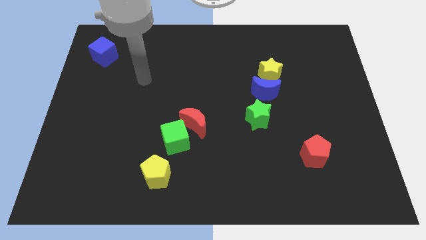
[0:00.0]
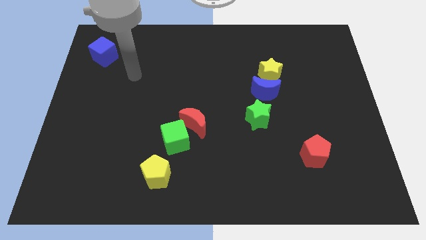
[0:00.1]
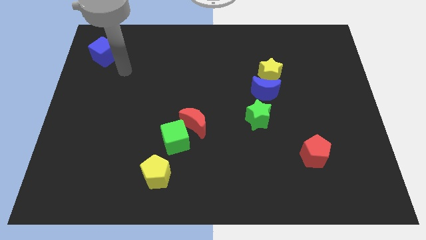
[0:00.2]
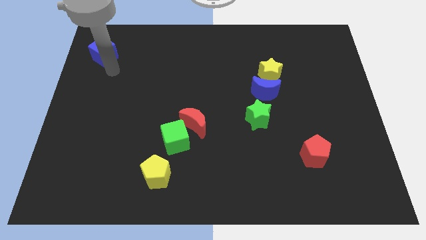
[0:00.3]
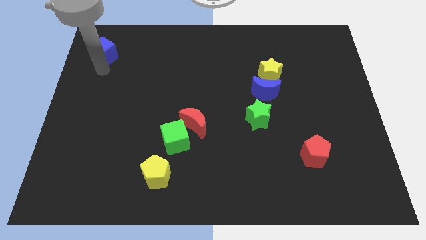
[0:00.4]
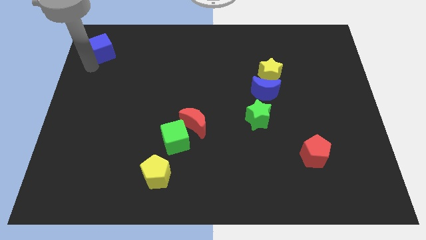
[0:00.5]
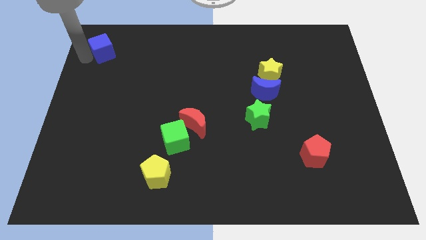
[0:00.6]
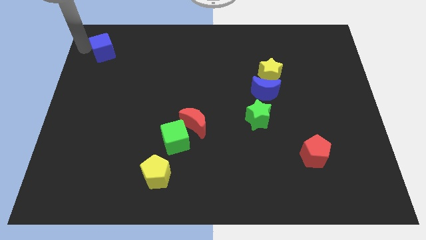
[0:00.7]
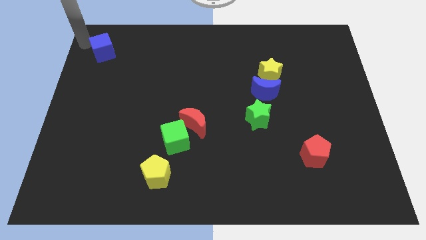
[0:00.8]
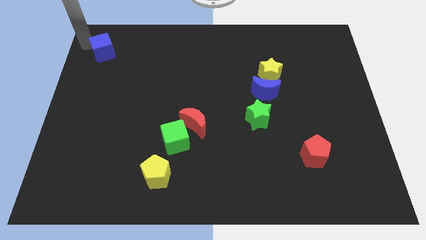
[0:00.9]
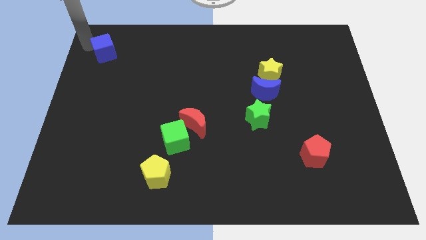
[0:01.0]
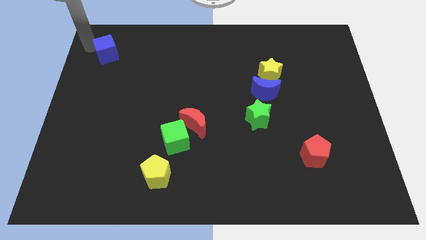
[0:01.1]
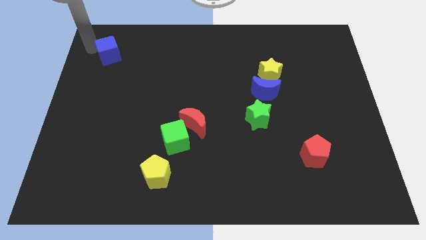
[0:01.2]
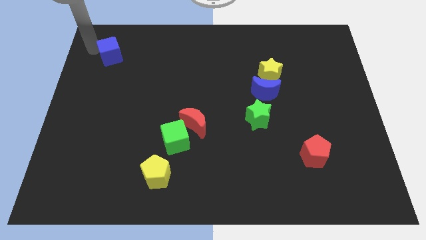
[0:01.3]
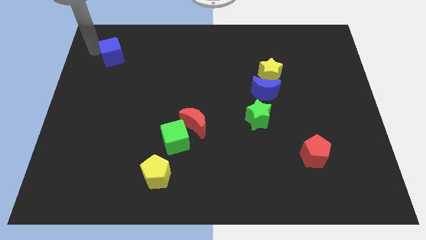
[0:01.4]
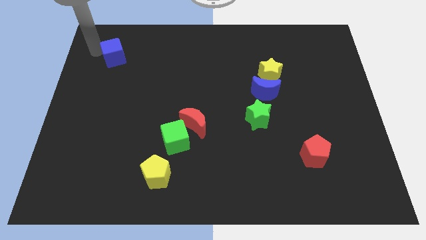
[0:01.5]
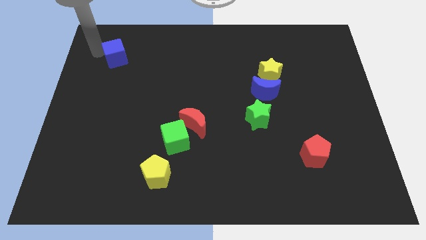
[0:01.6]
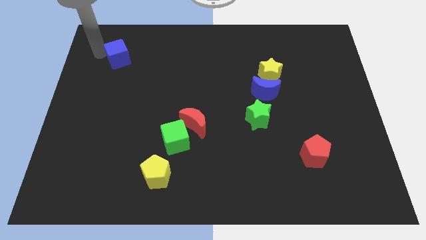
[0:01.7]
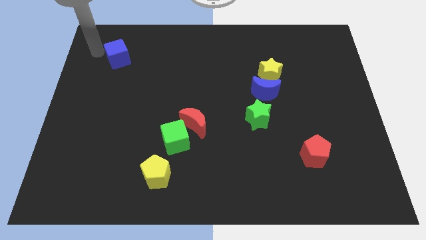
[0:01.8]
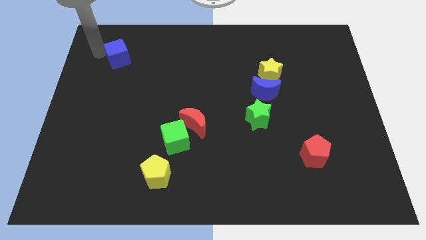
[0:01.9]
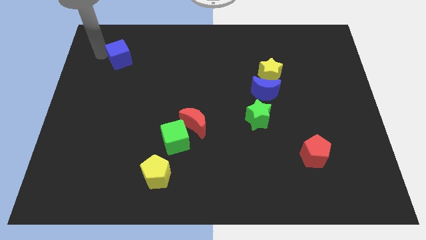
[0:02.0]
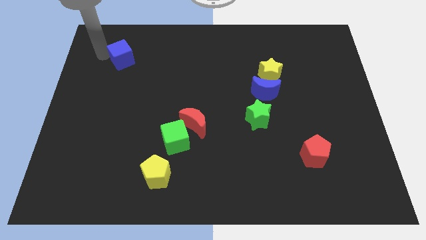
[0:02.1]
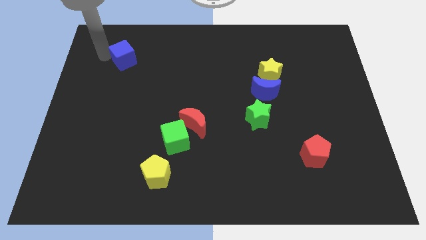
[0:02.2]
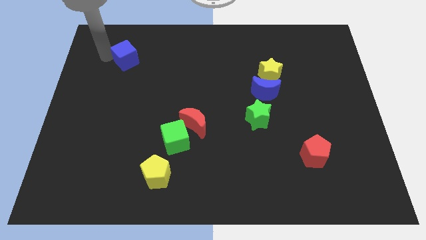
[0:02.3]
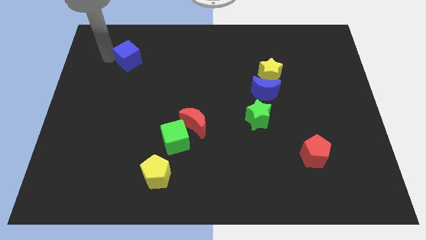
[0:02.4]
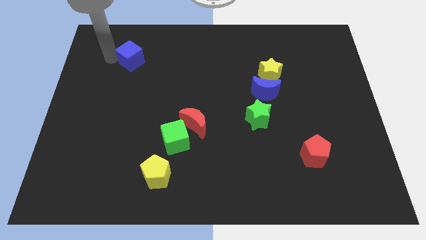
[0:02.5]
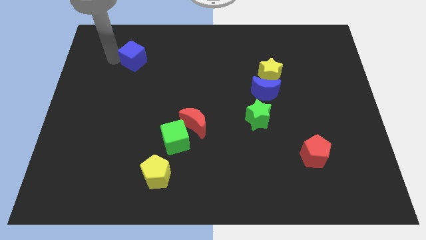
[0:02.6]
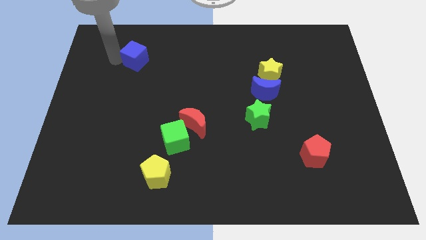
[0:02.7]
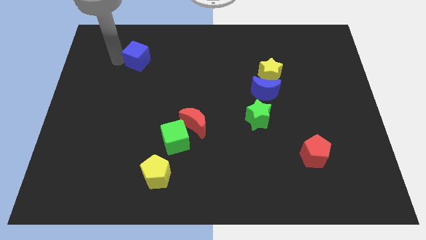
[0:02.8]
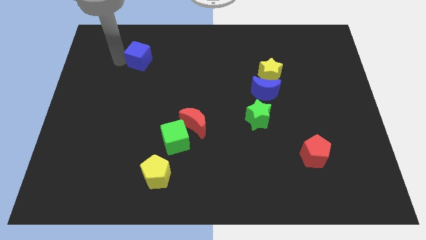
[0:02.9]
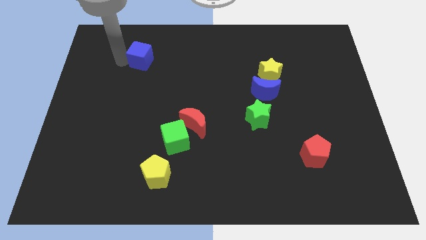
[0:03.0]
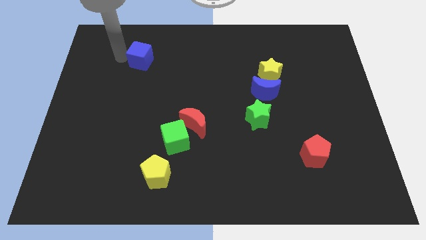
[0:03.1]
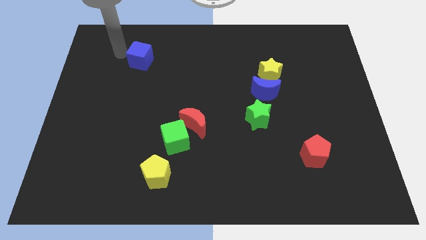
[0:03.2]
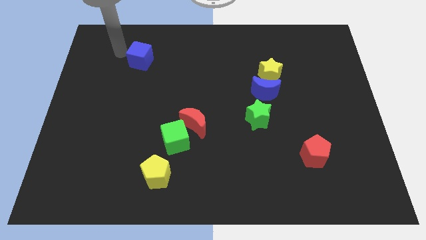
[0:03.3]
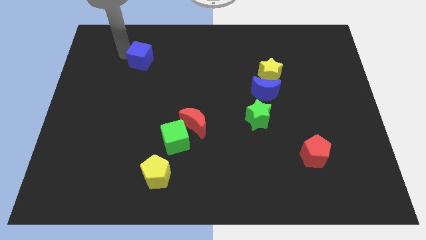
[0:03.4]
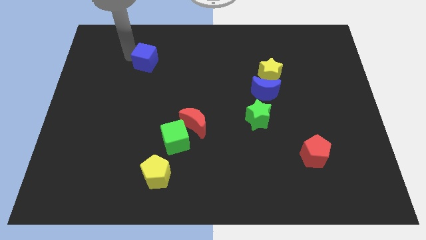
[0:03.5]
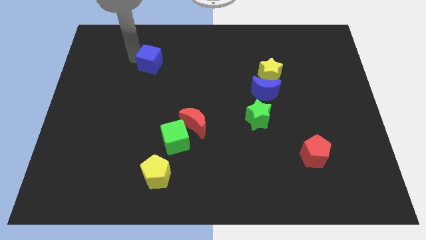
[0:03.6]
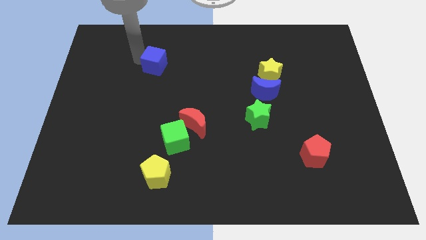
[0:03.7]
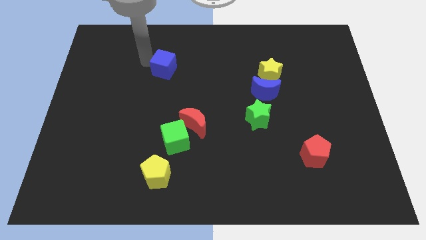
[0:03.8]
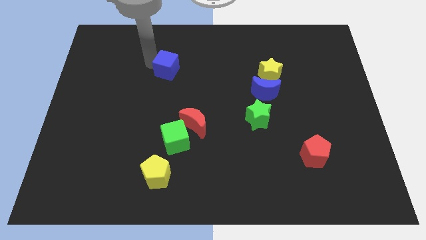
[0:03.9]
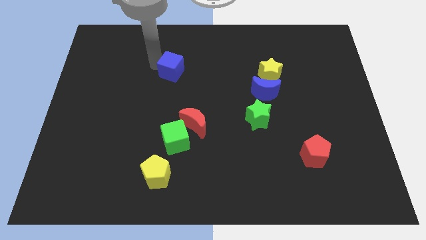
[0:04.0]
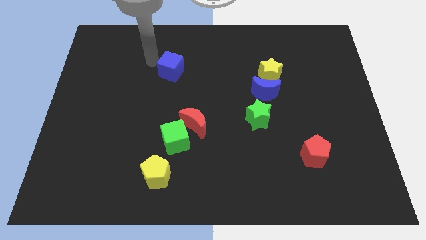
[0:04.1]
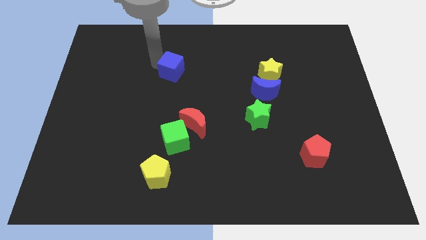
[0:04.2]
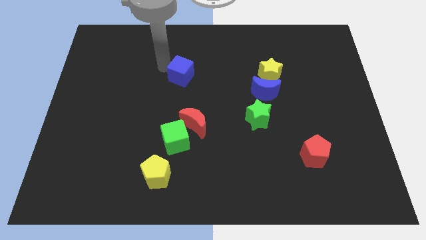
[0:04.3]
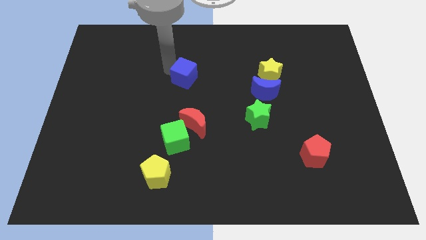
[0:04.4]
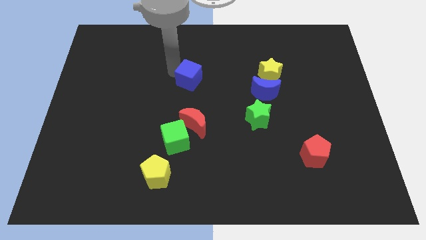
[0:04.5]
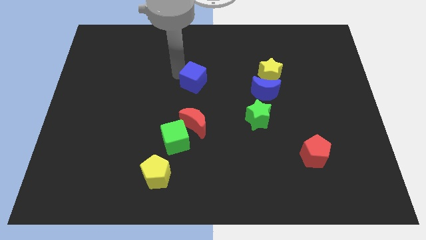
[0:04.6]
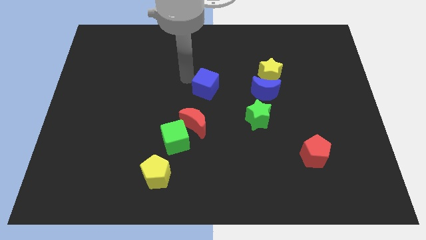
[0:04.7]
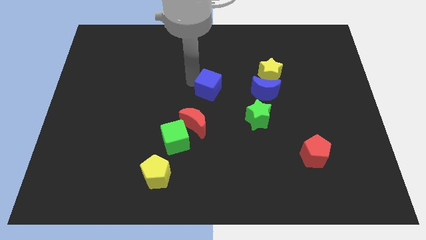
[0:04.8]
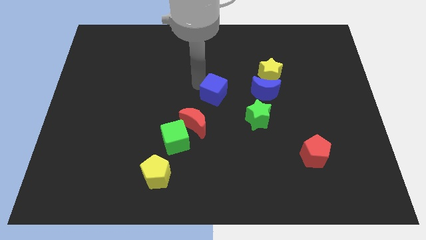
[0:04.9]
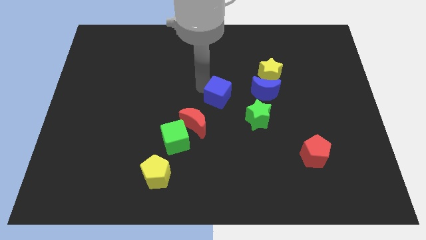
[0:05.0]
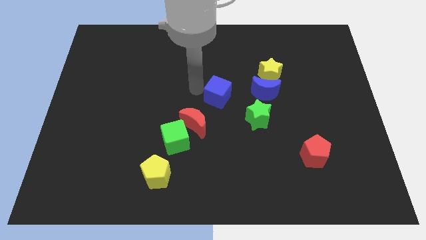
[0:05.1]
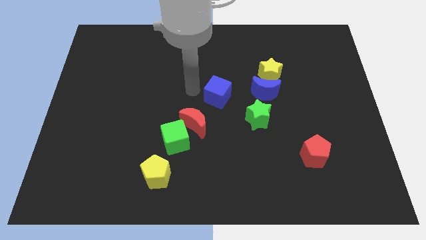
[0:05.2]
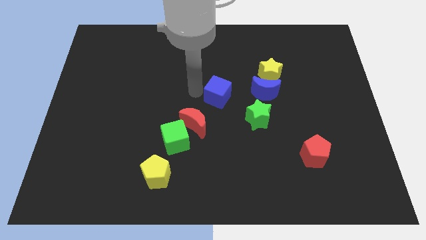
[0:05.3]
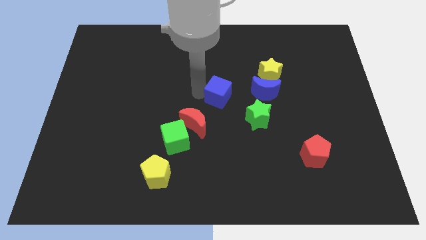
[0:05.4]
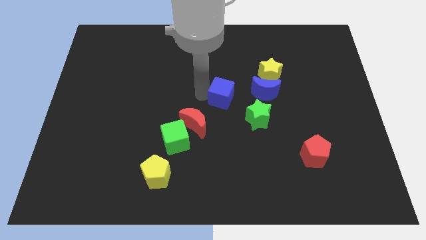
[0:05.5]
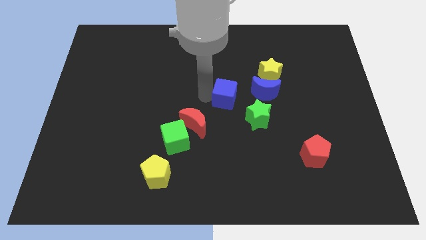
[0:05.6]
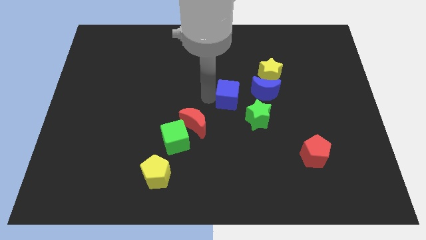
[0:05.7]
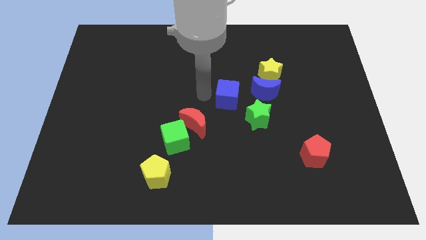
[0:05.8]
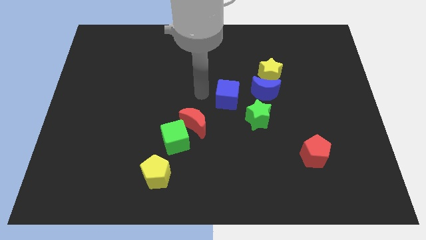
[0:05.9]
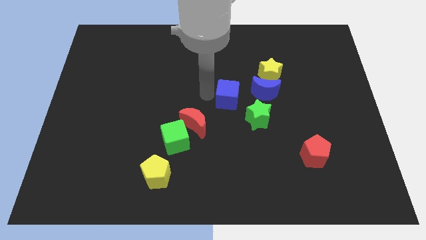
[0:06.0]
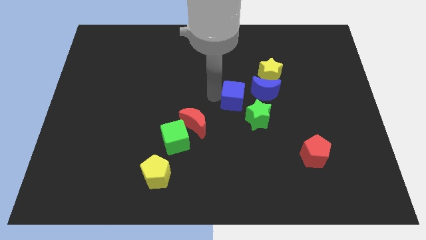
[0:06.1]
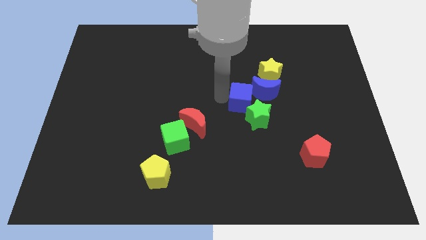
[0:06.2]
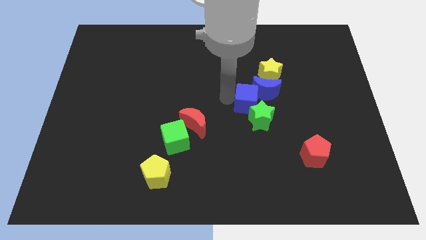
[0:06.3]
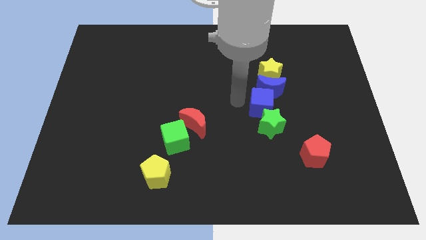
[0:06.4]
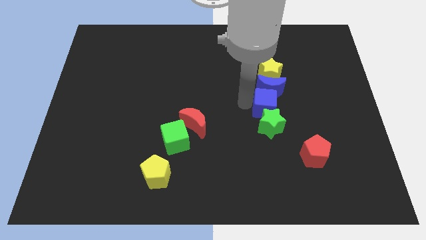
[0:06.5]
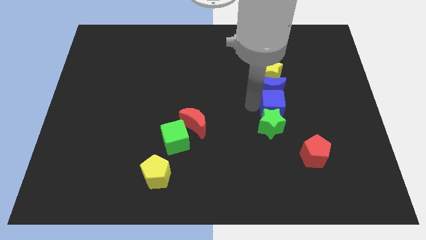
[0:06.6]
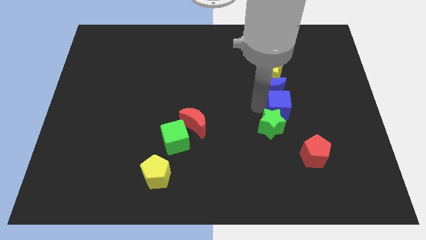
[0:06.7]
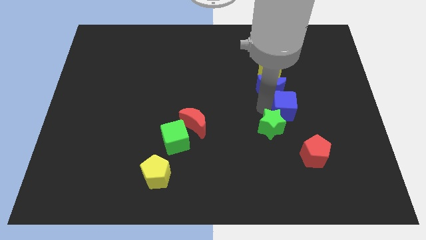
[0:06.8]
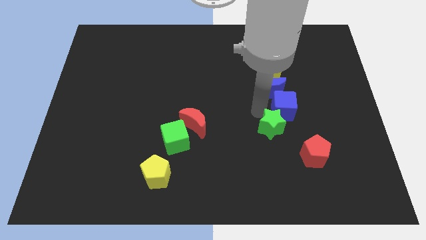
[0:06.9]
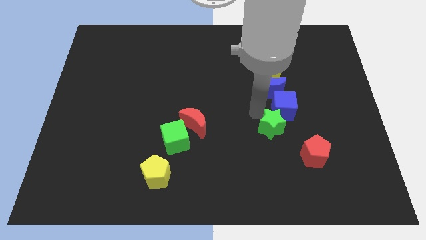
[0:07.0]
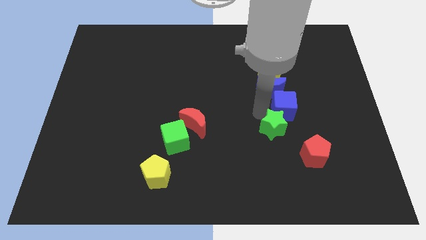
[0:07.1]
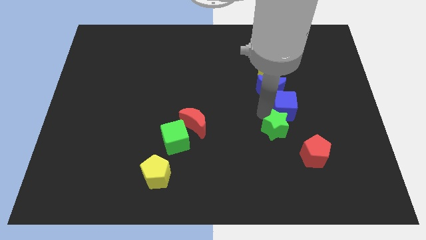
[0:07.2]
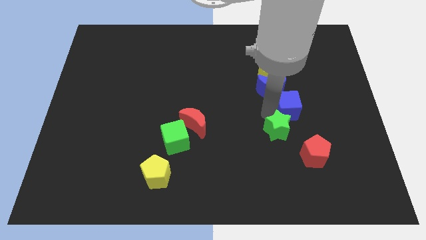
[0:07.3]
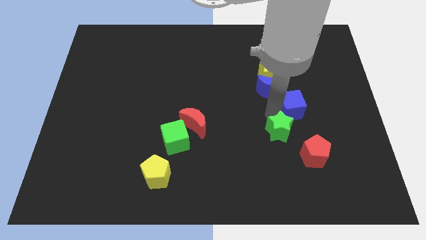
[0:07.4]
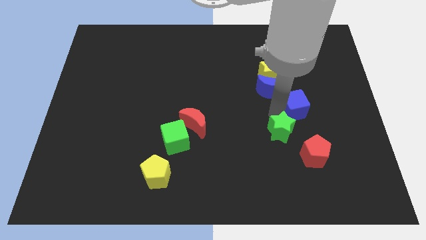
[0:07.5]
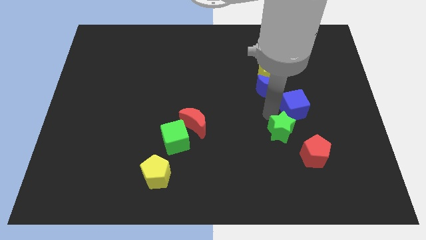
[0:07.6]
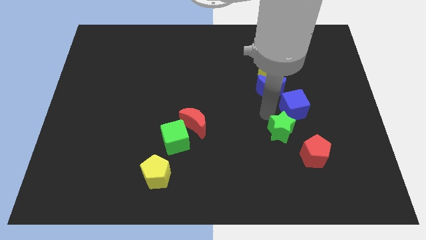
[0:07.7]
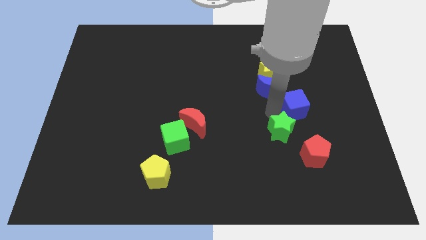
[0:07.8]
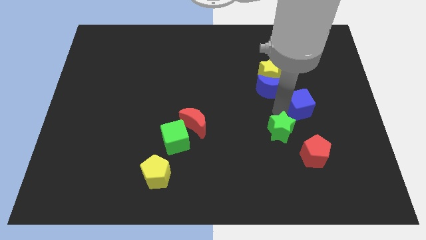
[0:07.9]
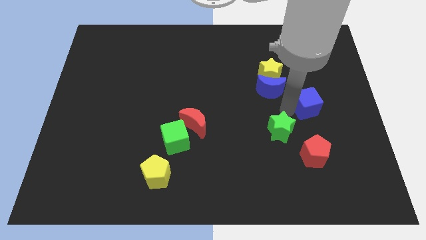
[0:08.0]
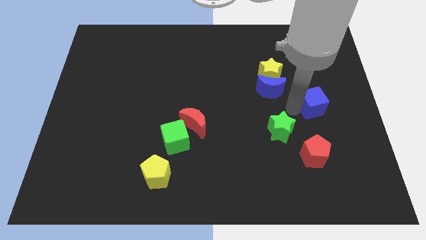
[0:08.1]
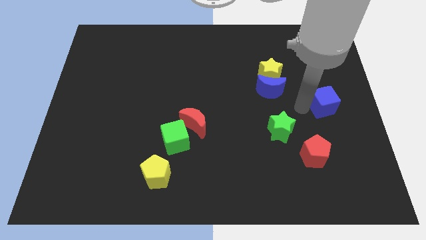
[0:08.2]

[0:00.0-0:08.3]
push the blue cube to the right side
